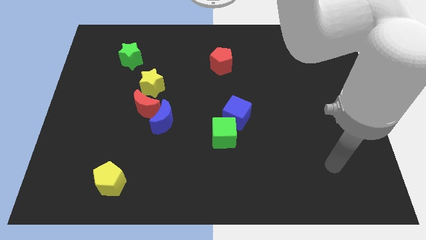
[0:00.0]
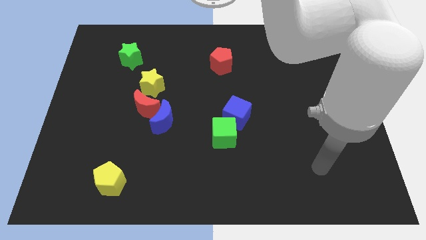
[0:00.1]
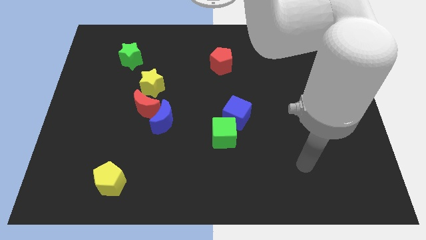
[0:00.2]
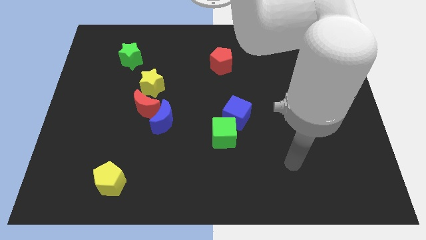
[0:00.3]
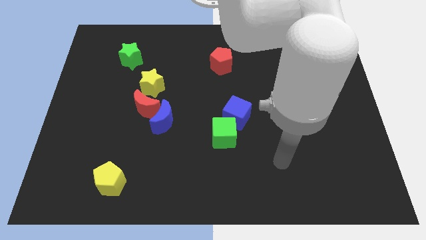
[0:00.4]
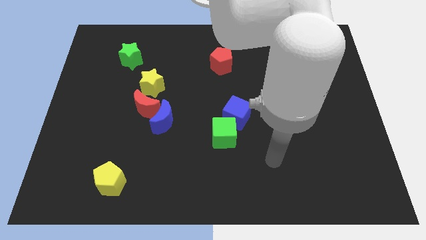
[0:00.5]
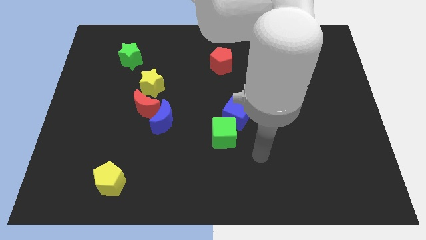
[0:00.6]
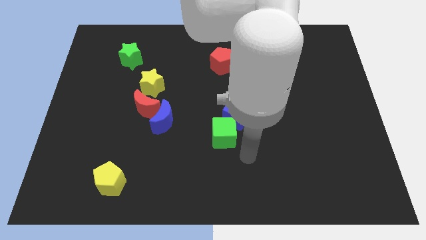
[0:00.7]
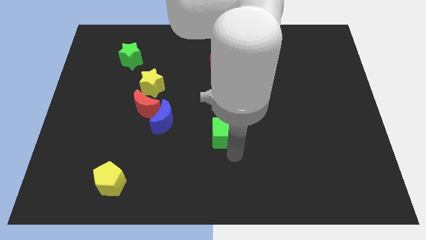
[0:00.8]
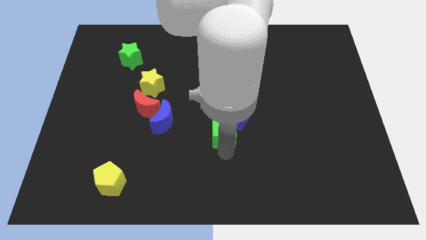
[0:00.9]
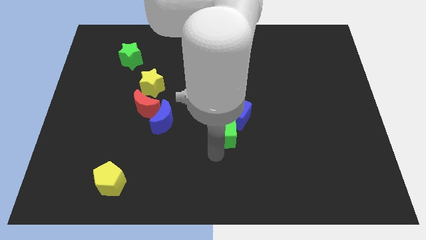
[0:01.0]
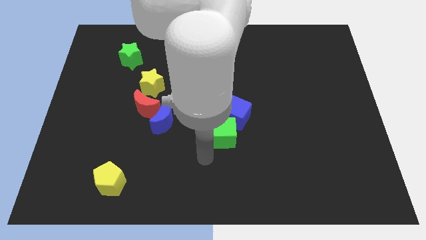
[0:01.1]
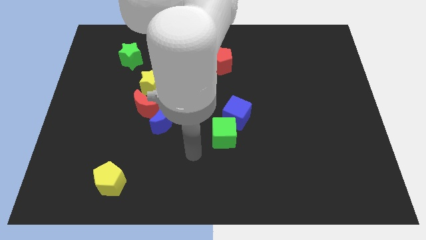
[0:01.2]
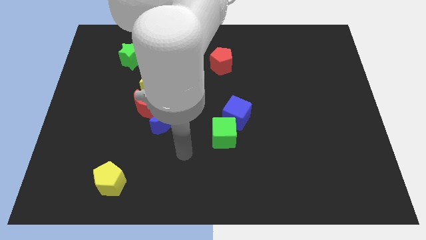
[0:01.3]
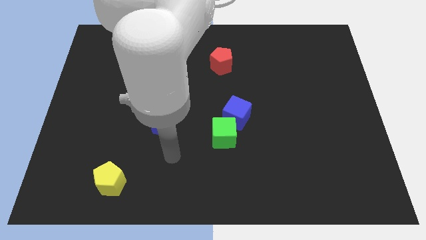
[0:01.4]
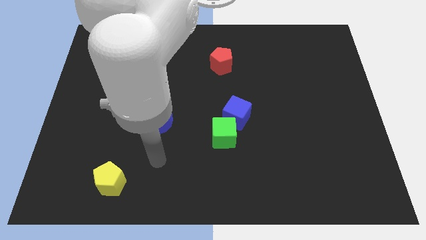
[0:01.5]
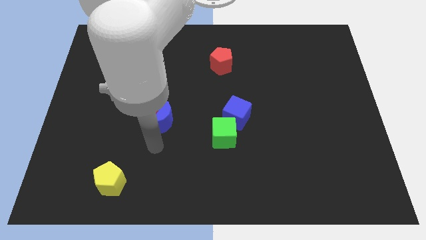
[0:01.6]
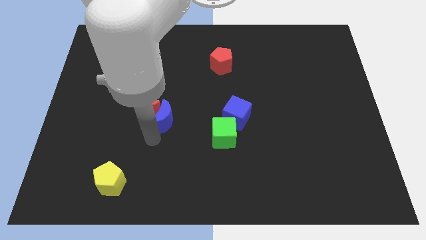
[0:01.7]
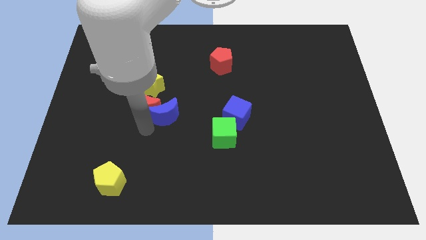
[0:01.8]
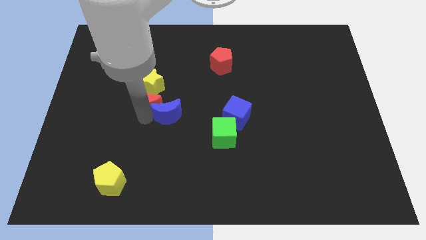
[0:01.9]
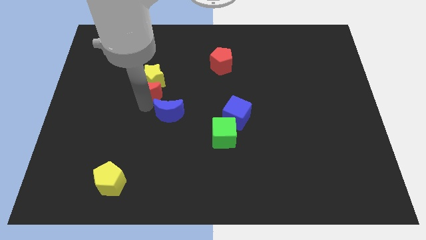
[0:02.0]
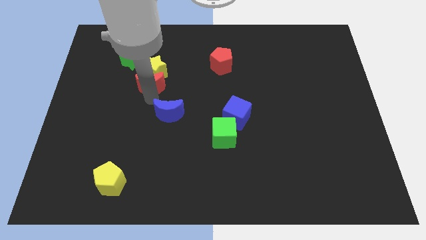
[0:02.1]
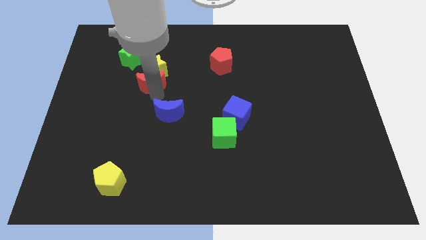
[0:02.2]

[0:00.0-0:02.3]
separate the blue moon from the red moon

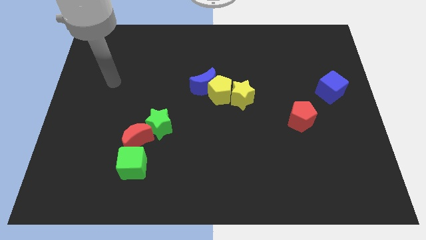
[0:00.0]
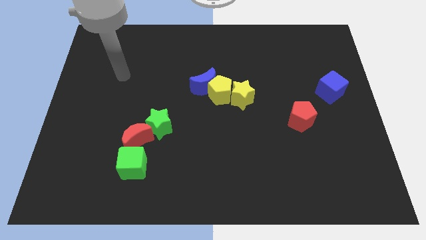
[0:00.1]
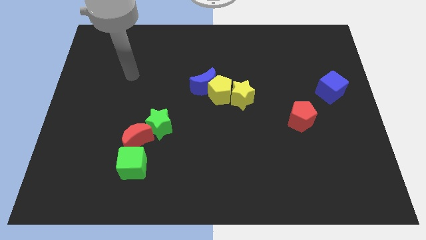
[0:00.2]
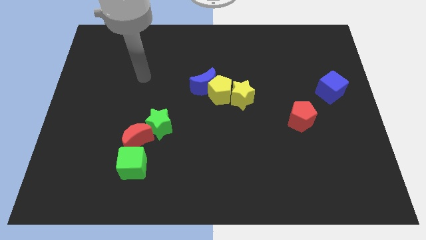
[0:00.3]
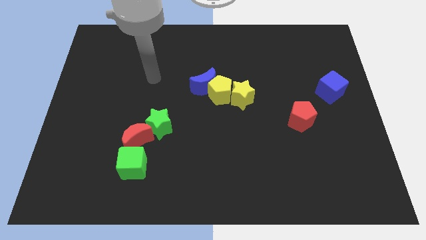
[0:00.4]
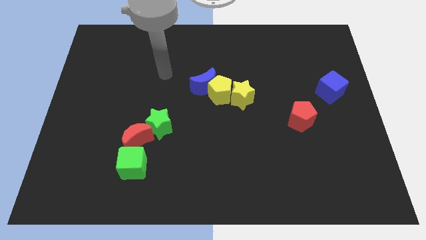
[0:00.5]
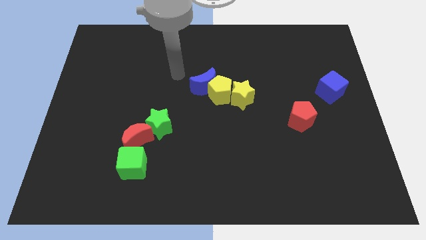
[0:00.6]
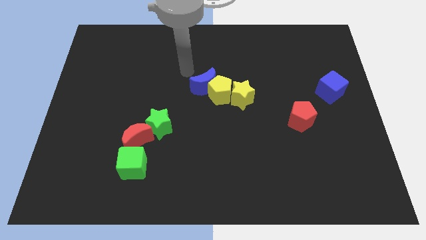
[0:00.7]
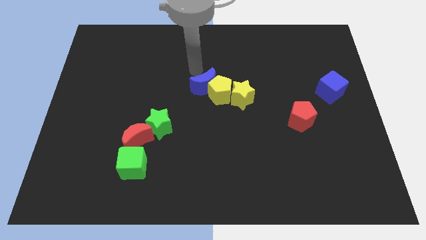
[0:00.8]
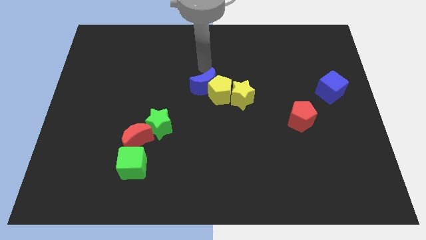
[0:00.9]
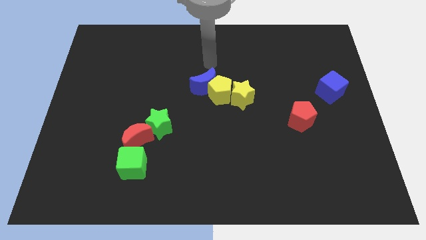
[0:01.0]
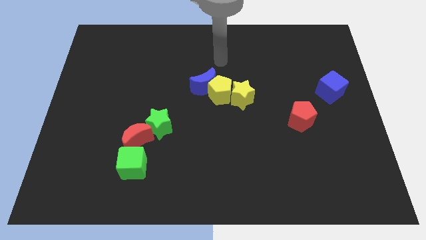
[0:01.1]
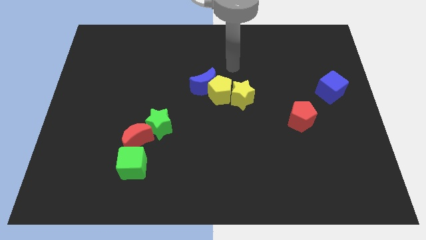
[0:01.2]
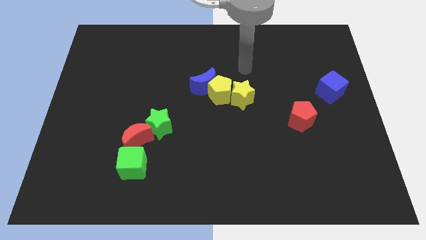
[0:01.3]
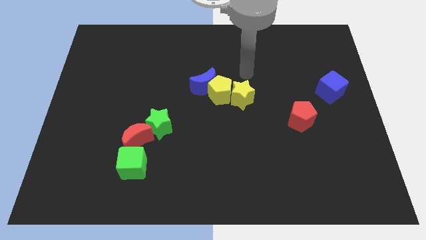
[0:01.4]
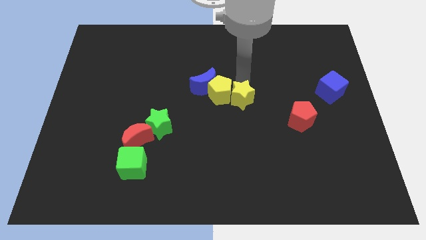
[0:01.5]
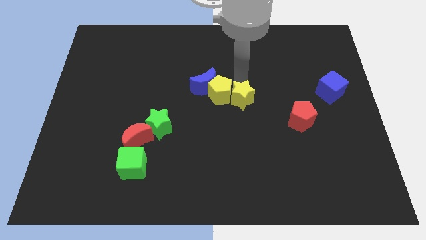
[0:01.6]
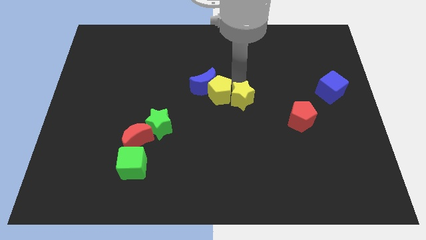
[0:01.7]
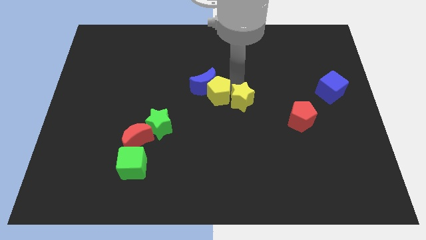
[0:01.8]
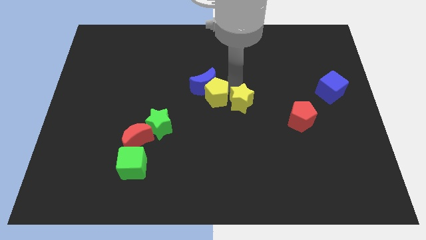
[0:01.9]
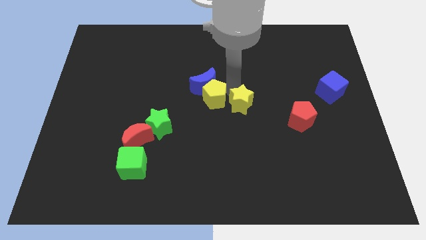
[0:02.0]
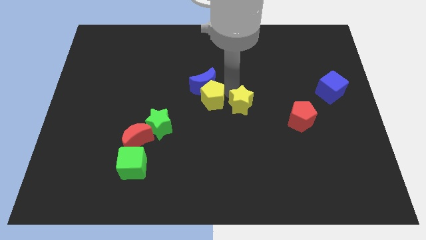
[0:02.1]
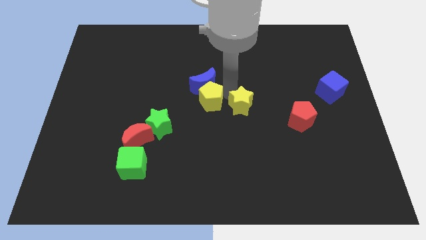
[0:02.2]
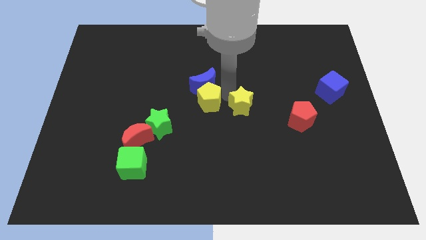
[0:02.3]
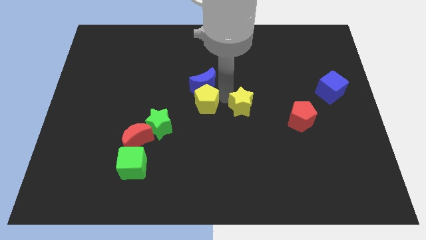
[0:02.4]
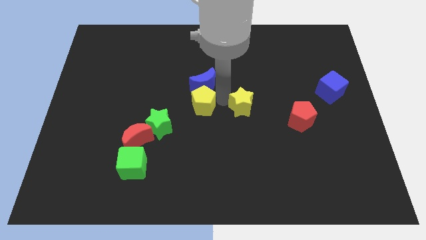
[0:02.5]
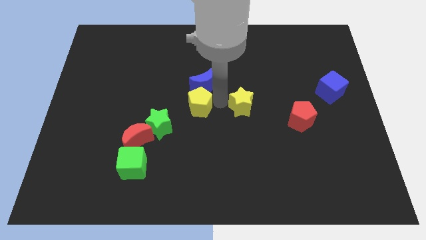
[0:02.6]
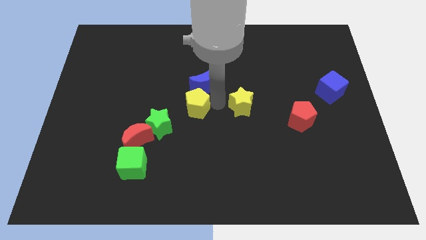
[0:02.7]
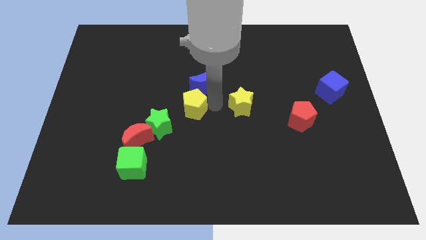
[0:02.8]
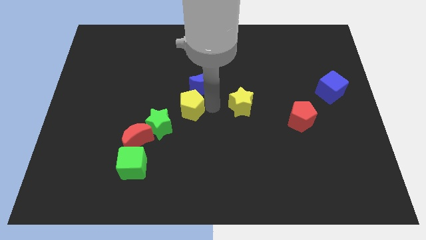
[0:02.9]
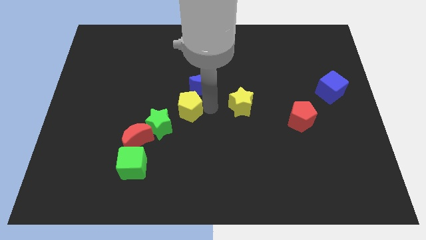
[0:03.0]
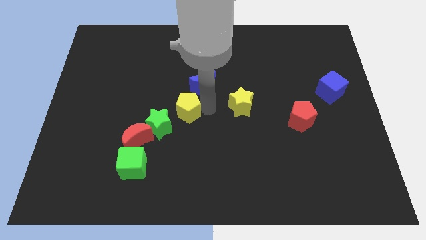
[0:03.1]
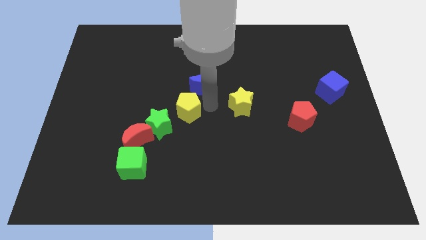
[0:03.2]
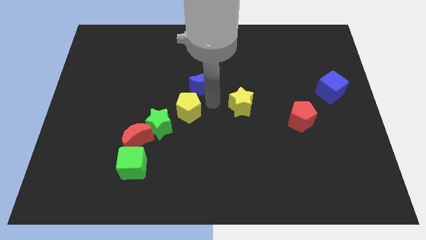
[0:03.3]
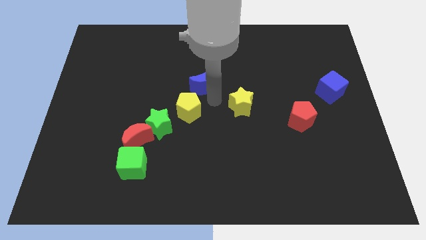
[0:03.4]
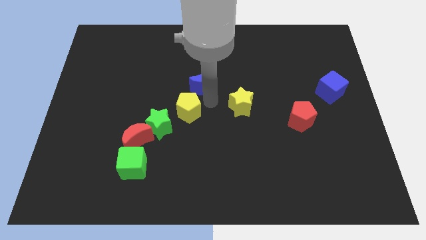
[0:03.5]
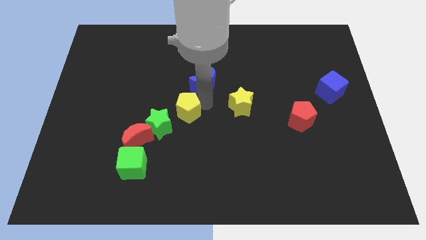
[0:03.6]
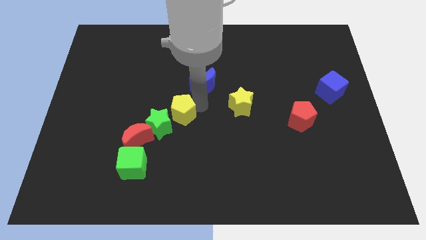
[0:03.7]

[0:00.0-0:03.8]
pull the yellow pentagon apart from the blue moon and yellow star

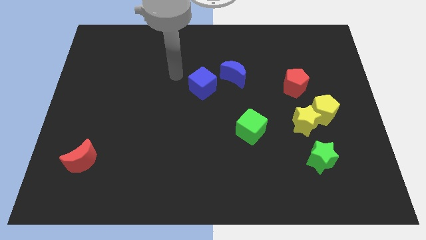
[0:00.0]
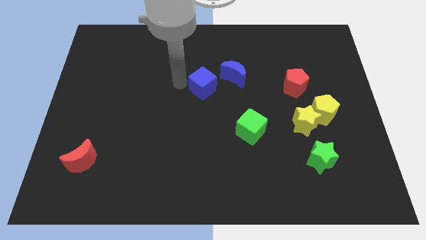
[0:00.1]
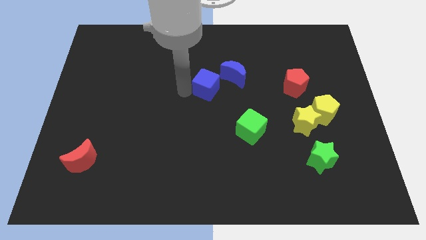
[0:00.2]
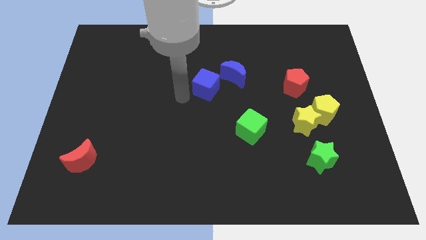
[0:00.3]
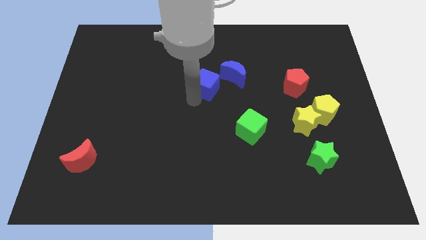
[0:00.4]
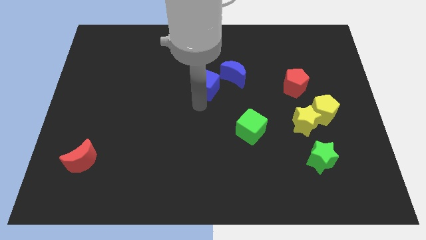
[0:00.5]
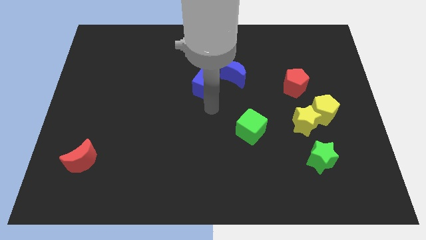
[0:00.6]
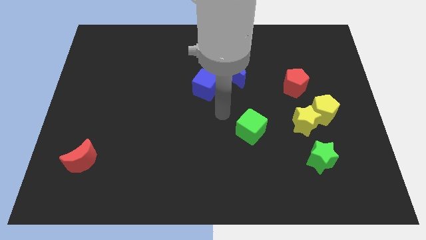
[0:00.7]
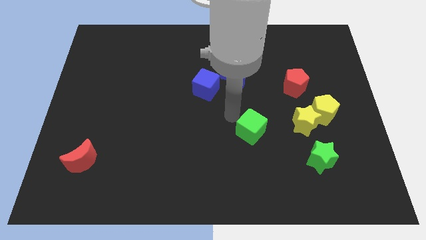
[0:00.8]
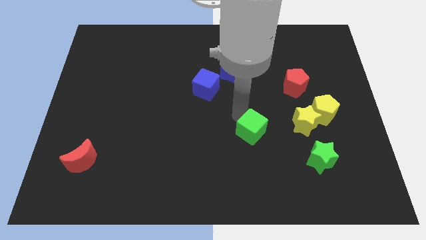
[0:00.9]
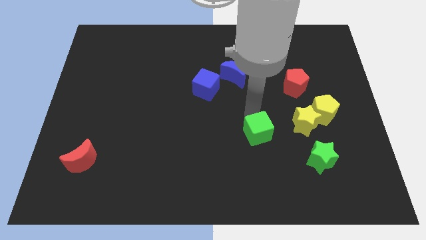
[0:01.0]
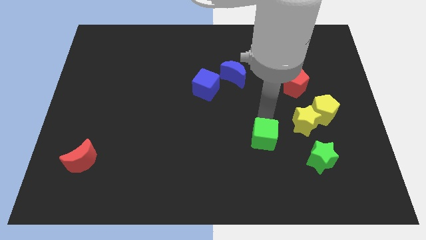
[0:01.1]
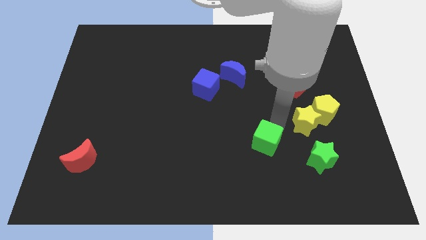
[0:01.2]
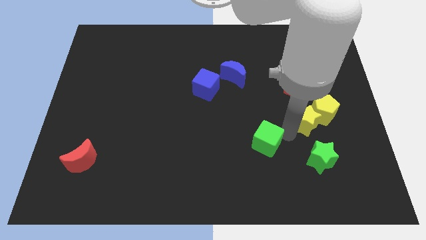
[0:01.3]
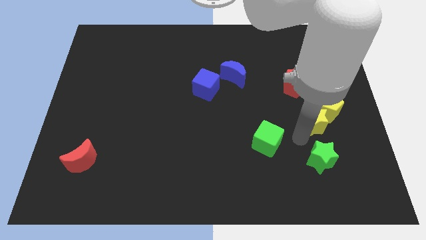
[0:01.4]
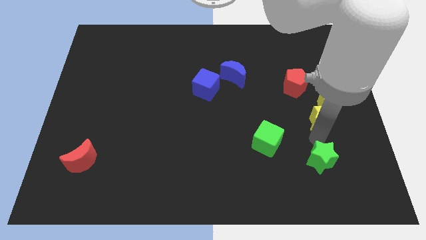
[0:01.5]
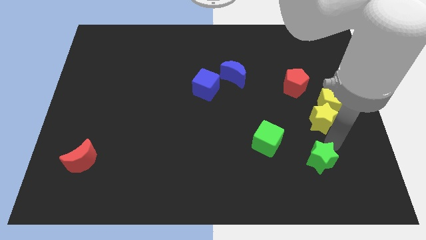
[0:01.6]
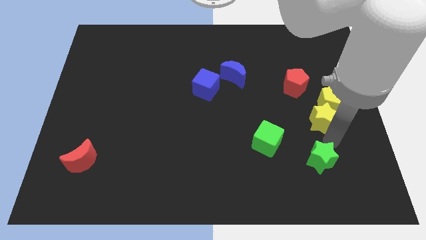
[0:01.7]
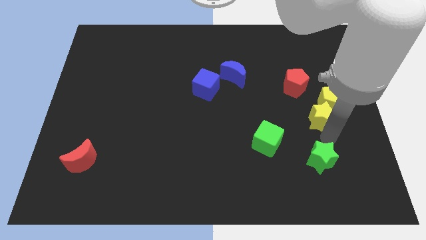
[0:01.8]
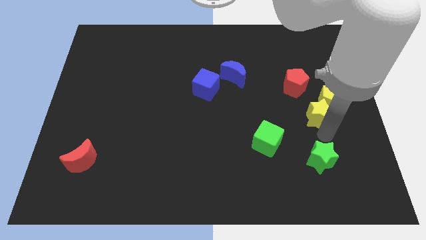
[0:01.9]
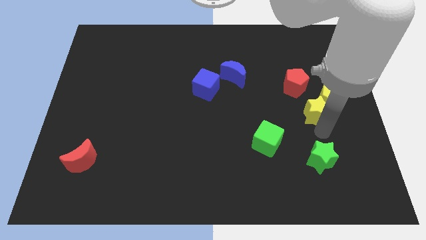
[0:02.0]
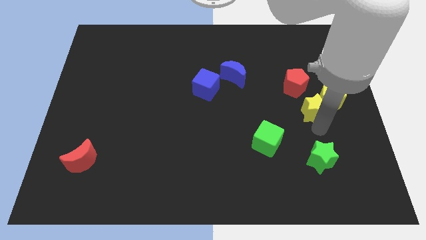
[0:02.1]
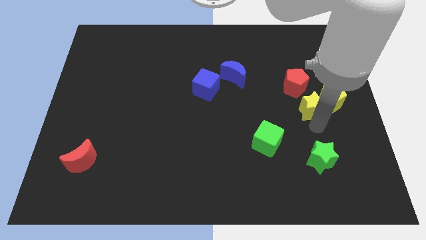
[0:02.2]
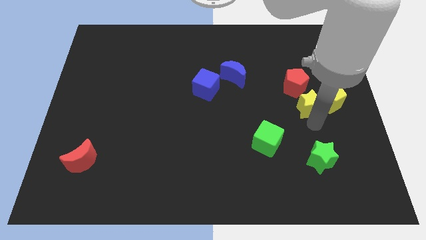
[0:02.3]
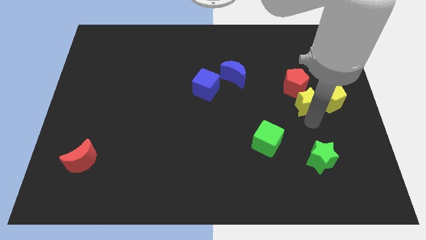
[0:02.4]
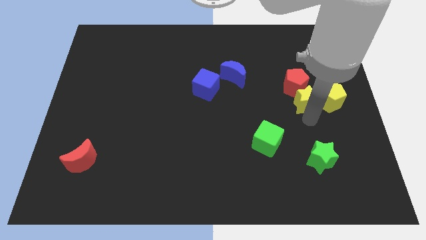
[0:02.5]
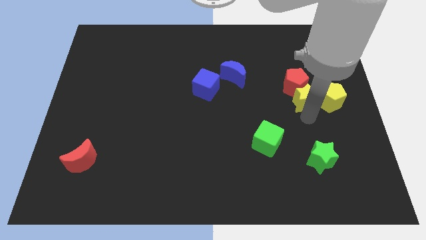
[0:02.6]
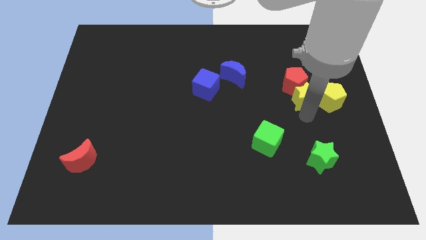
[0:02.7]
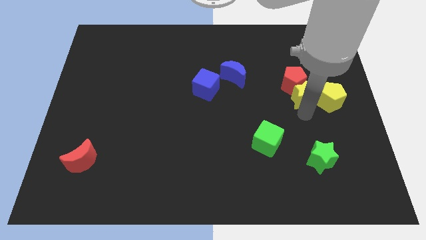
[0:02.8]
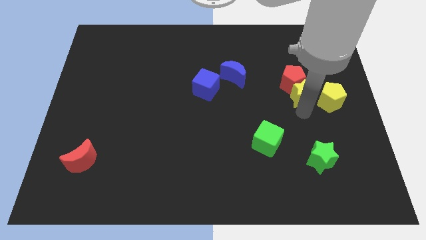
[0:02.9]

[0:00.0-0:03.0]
separate the yellow star from the yellow pentagon and green star

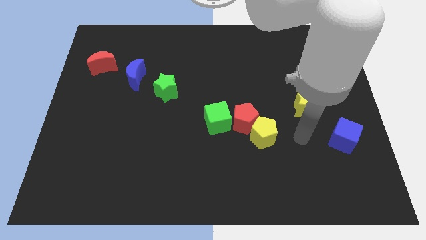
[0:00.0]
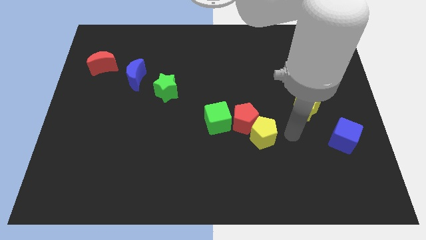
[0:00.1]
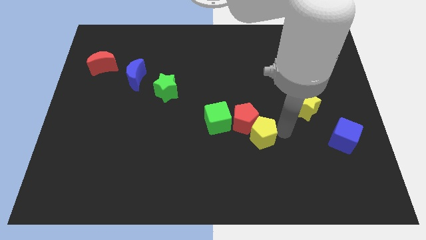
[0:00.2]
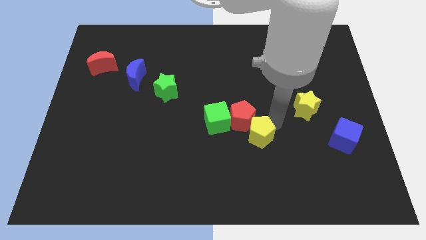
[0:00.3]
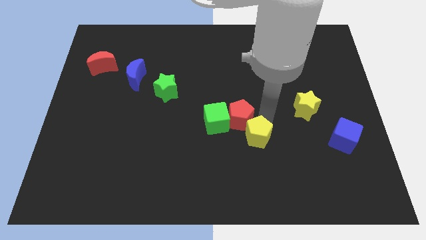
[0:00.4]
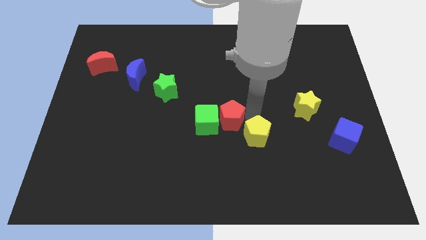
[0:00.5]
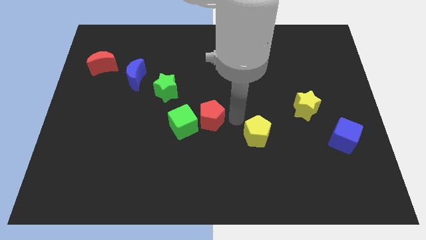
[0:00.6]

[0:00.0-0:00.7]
separate the yellow pentagon from the red pentagon
